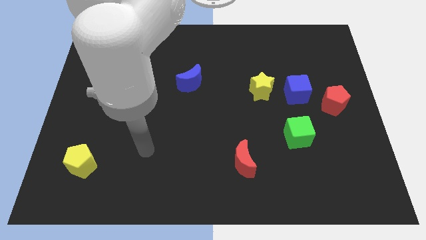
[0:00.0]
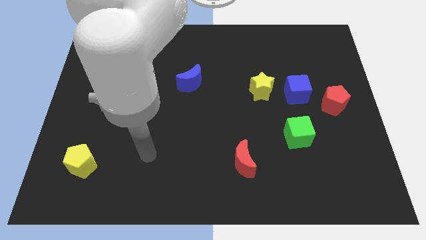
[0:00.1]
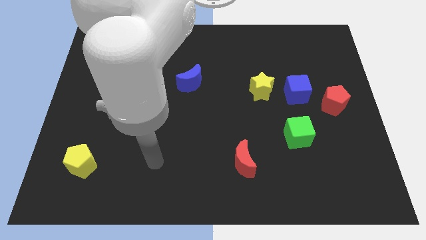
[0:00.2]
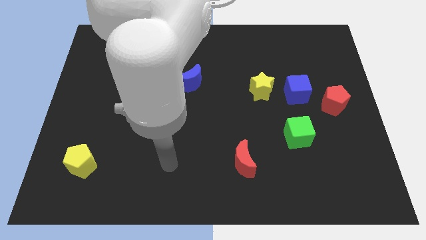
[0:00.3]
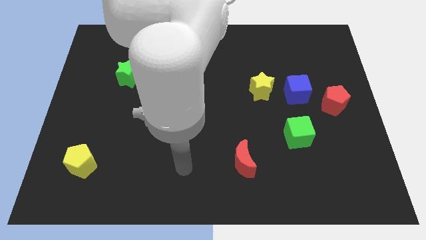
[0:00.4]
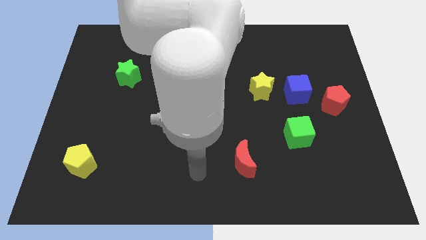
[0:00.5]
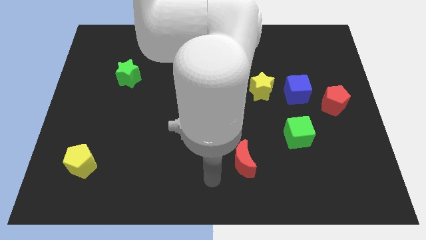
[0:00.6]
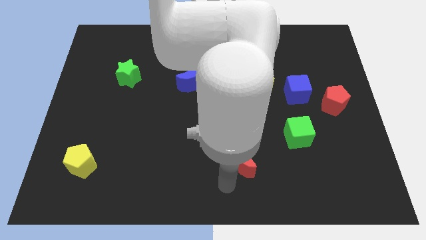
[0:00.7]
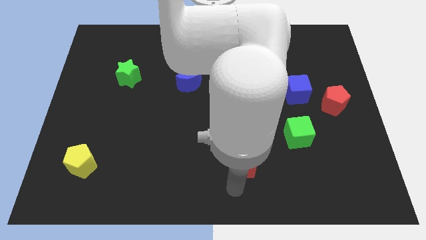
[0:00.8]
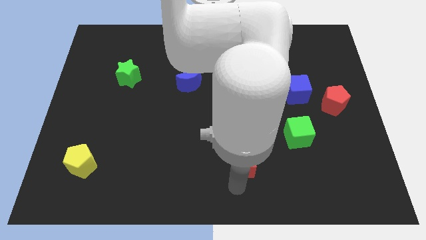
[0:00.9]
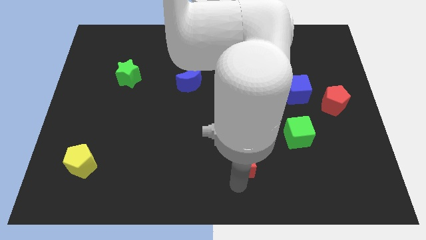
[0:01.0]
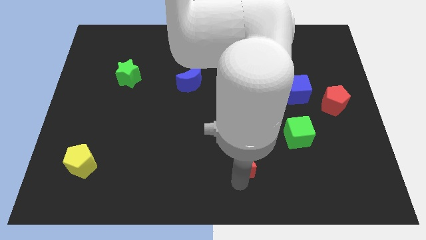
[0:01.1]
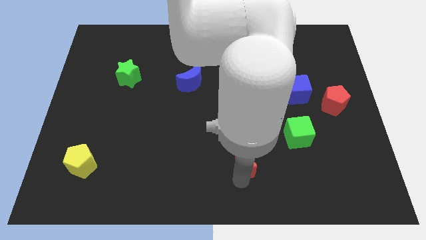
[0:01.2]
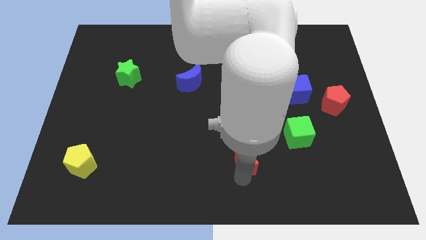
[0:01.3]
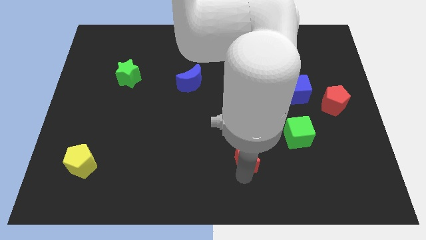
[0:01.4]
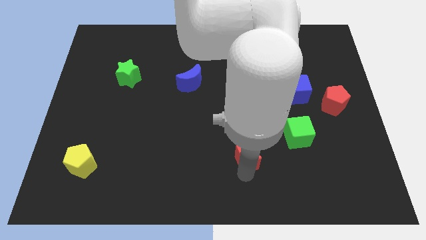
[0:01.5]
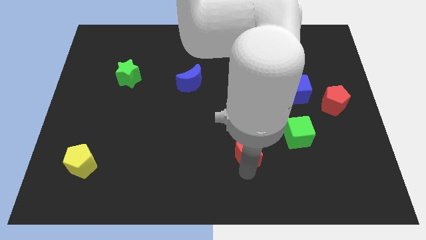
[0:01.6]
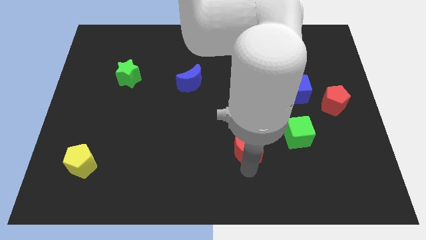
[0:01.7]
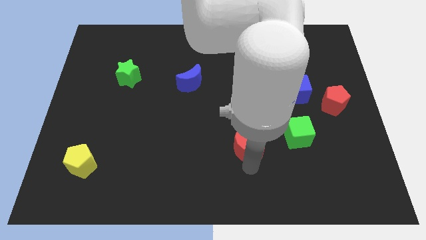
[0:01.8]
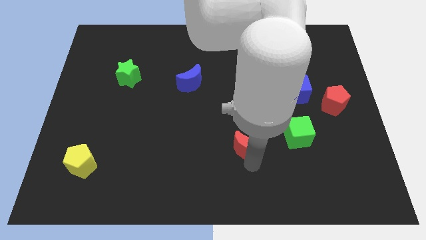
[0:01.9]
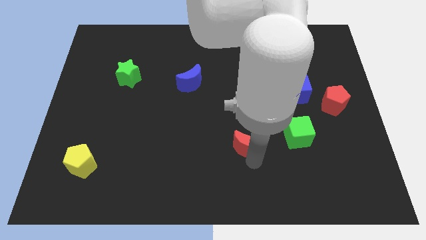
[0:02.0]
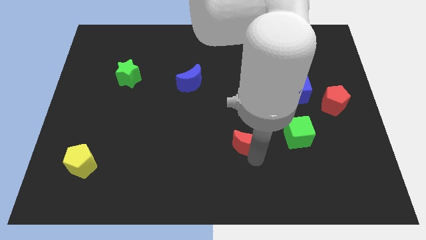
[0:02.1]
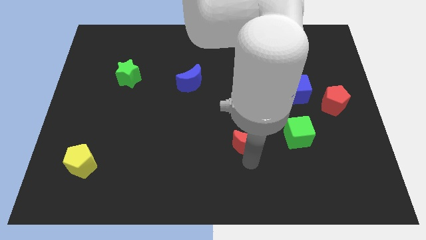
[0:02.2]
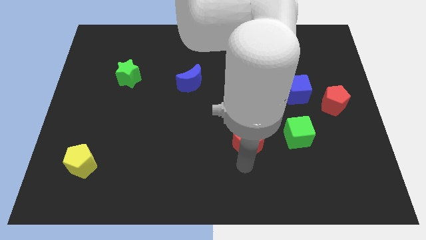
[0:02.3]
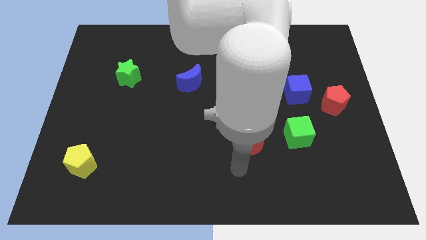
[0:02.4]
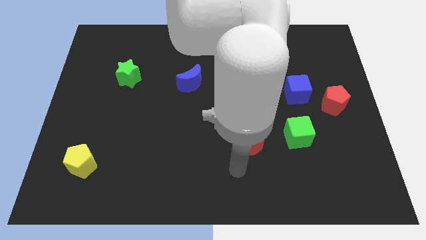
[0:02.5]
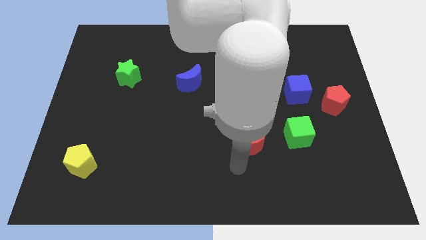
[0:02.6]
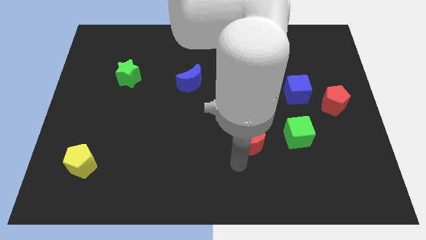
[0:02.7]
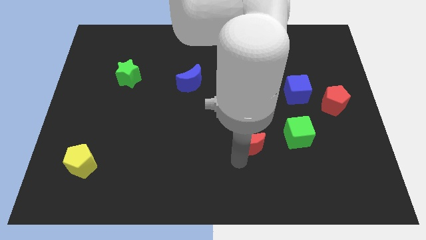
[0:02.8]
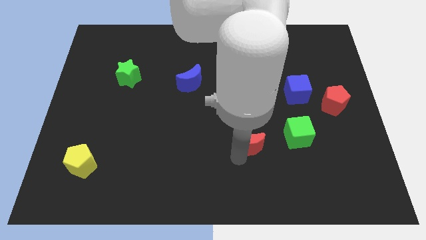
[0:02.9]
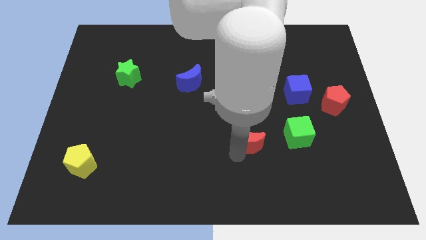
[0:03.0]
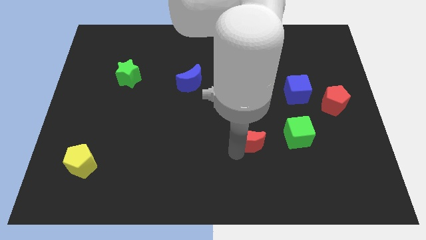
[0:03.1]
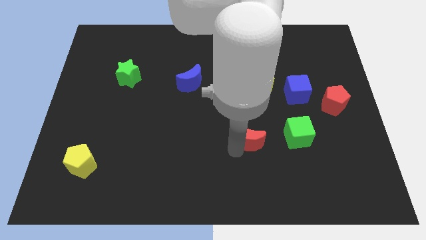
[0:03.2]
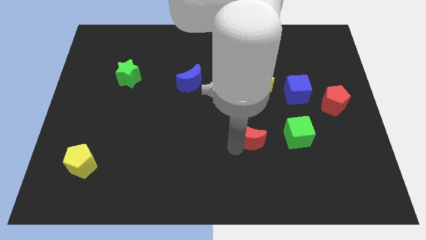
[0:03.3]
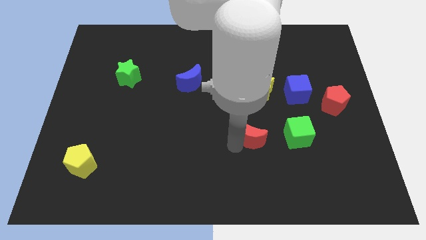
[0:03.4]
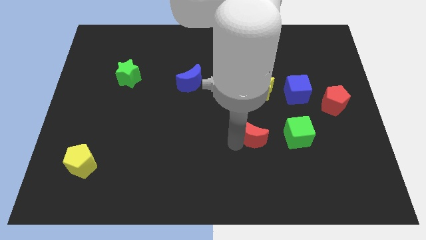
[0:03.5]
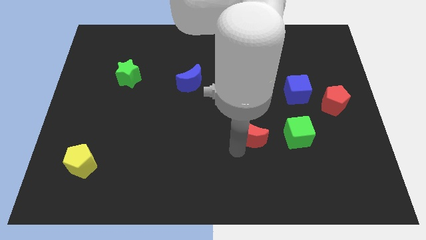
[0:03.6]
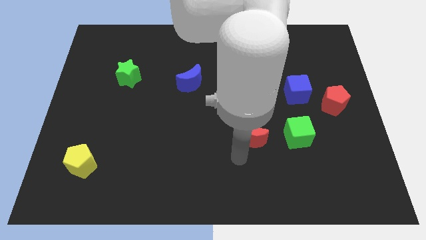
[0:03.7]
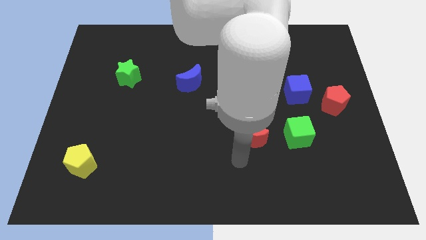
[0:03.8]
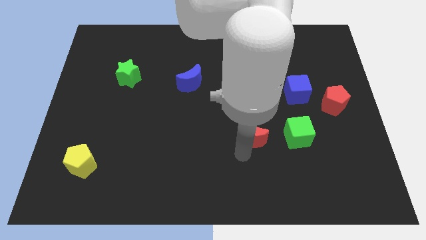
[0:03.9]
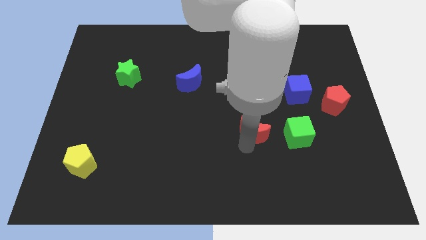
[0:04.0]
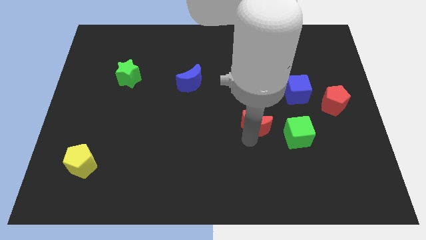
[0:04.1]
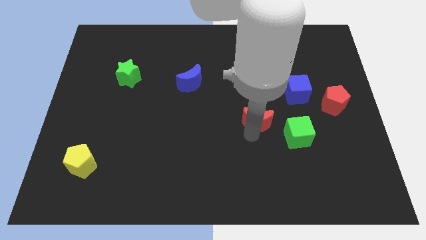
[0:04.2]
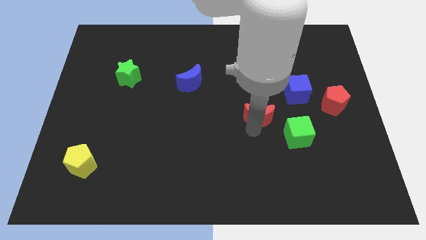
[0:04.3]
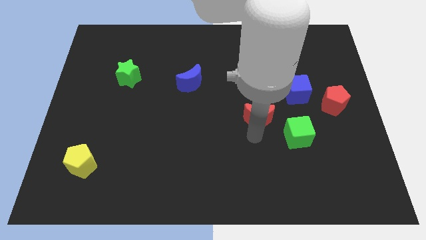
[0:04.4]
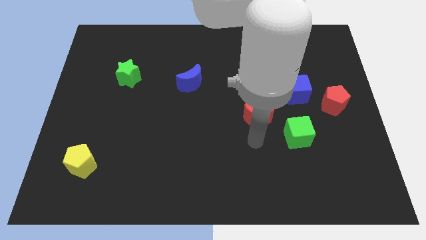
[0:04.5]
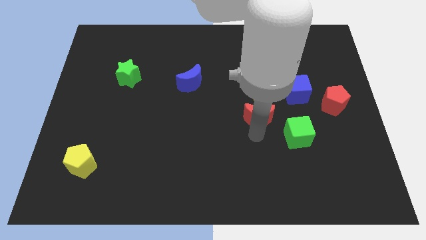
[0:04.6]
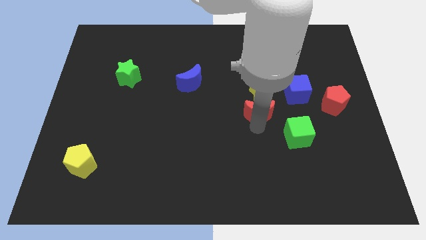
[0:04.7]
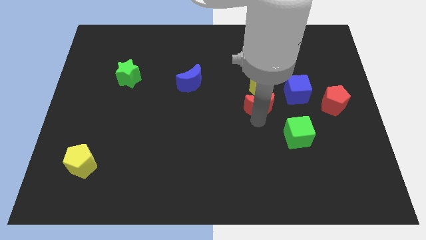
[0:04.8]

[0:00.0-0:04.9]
slide the red moon to the yellow star

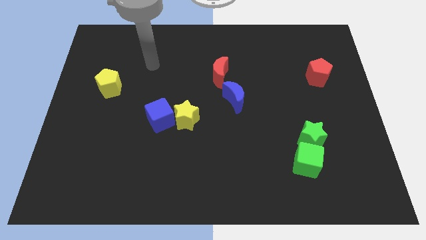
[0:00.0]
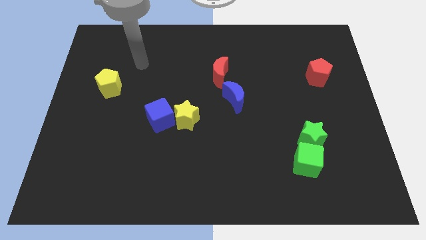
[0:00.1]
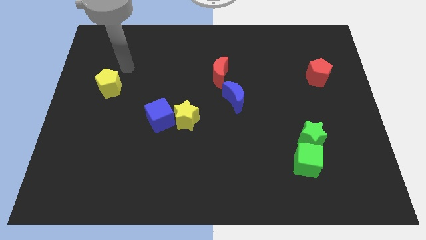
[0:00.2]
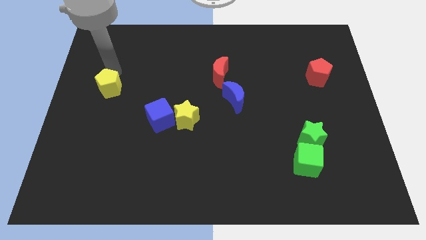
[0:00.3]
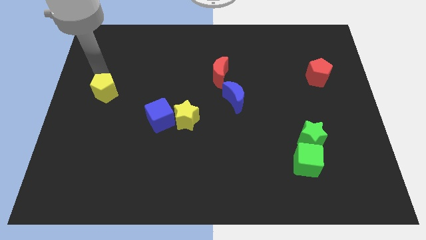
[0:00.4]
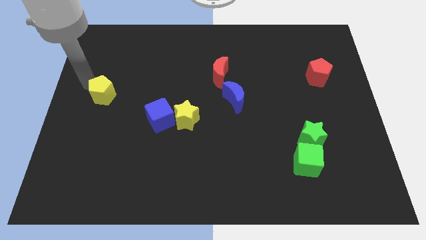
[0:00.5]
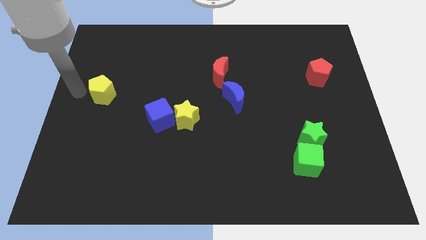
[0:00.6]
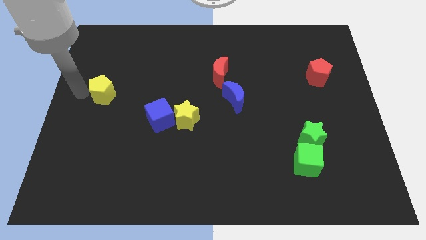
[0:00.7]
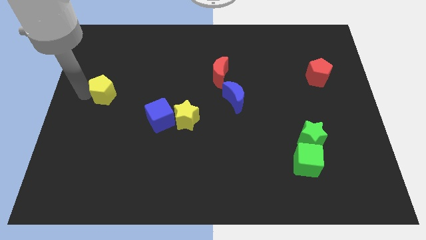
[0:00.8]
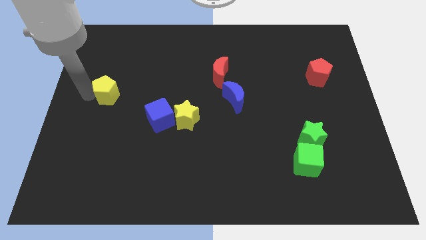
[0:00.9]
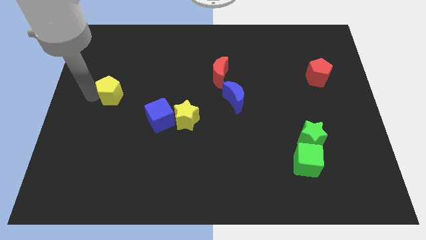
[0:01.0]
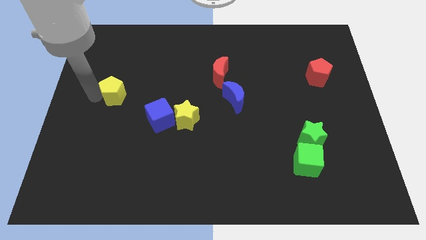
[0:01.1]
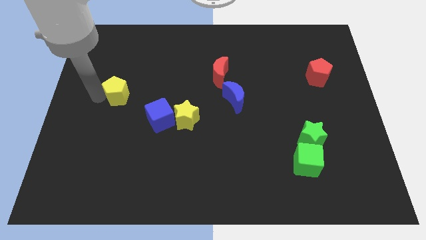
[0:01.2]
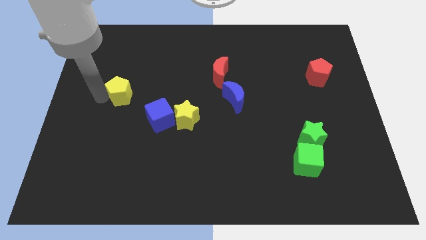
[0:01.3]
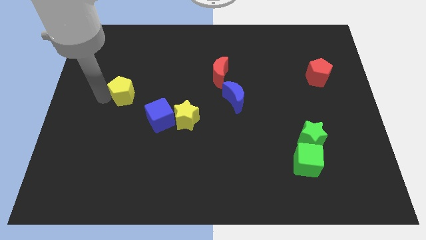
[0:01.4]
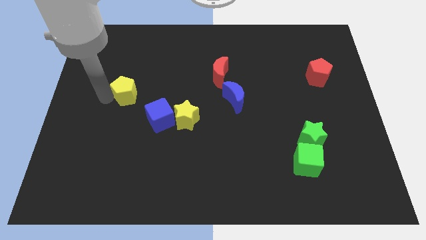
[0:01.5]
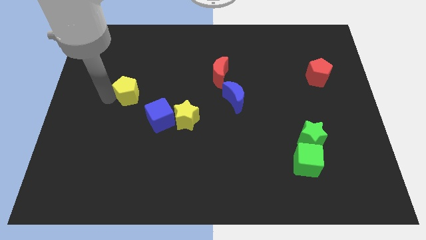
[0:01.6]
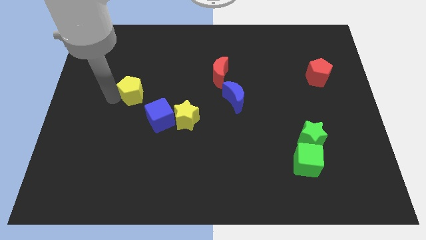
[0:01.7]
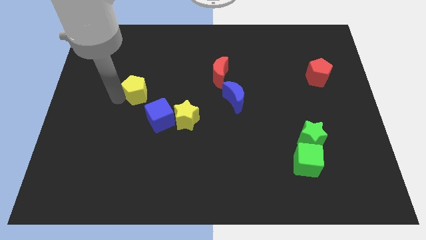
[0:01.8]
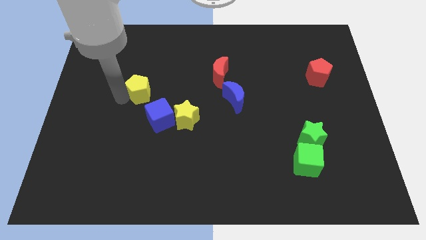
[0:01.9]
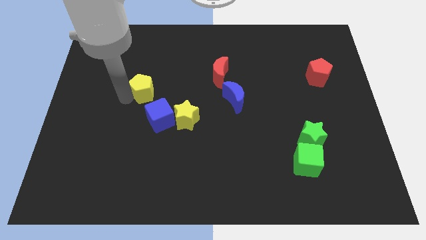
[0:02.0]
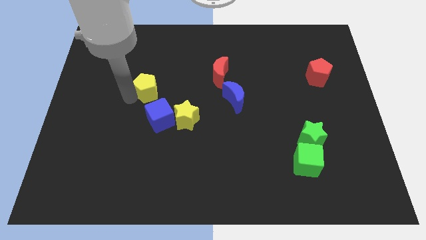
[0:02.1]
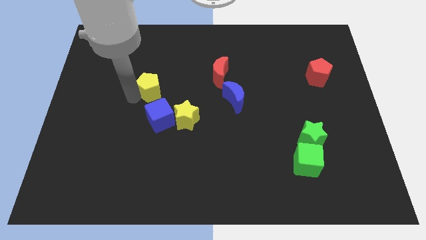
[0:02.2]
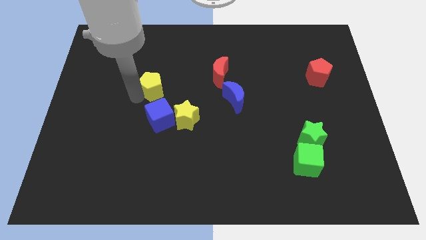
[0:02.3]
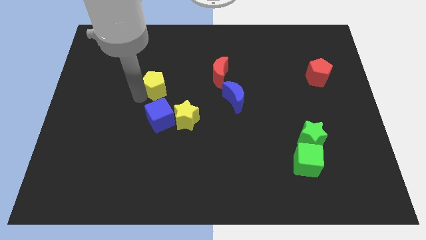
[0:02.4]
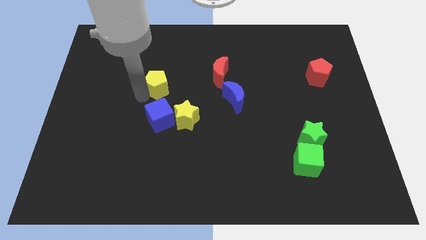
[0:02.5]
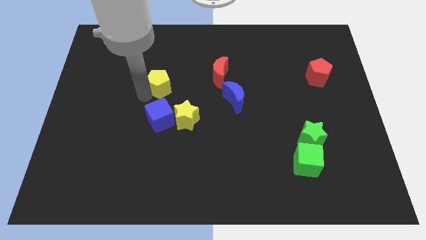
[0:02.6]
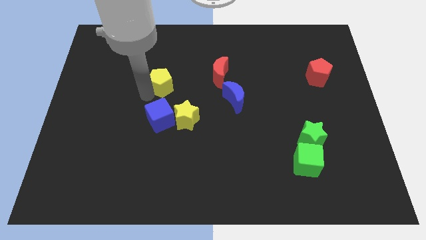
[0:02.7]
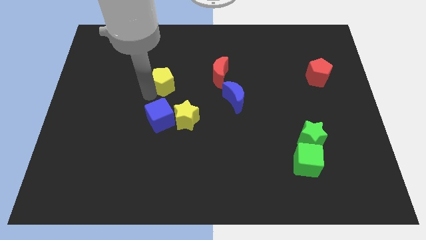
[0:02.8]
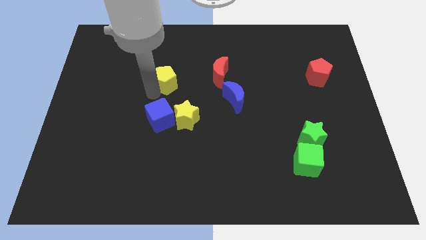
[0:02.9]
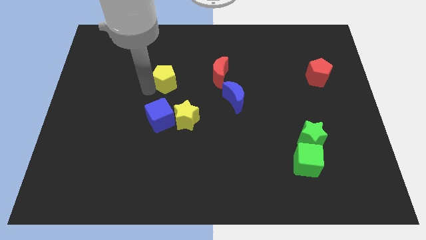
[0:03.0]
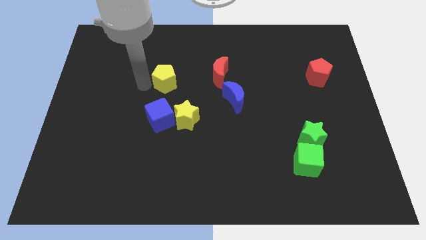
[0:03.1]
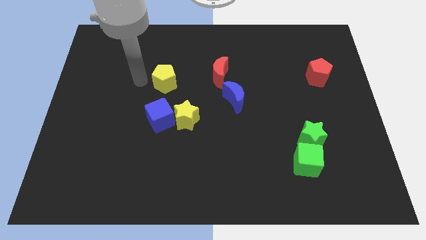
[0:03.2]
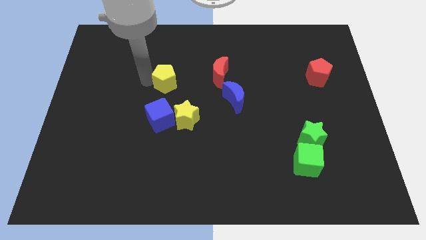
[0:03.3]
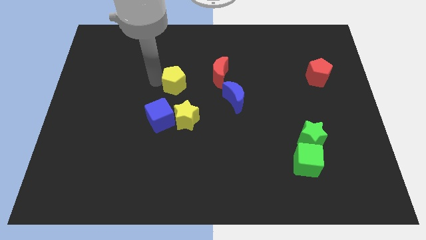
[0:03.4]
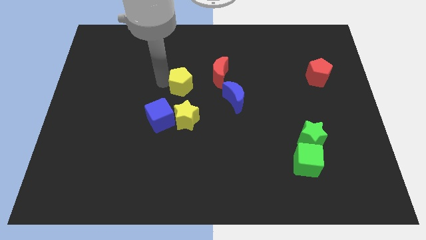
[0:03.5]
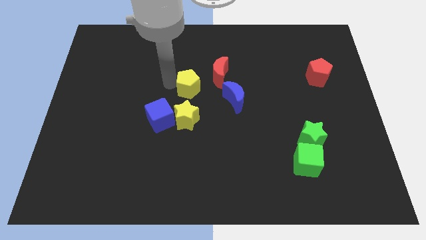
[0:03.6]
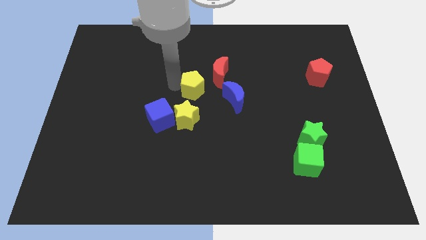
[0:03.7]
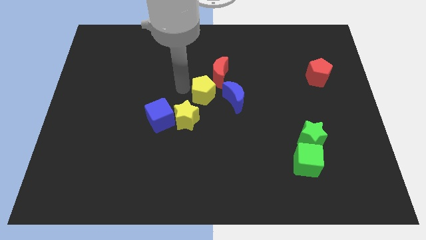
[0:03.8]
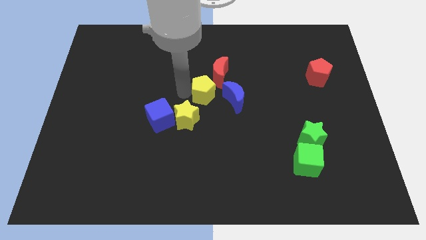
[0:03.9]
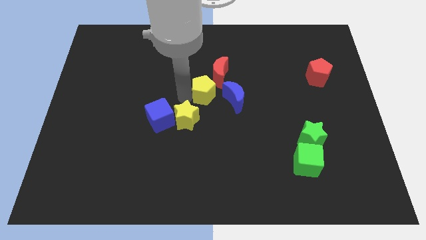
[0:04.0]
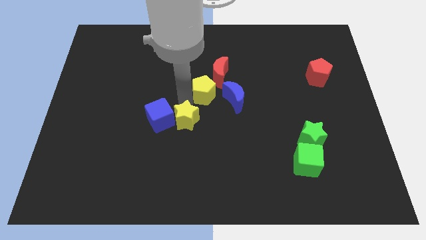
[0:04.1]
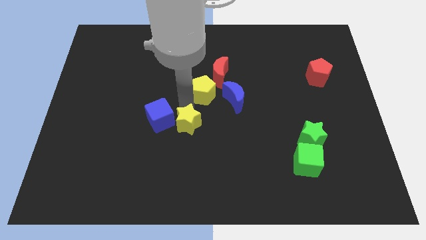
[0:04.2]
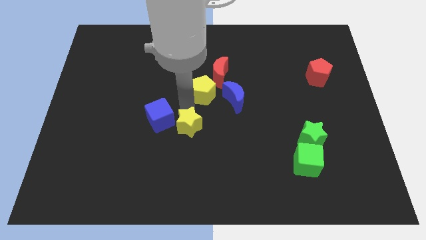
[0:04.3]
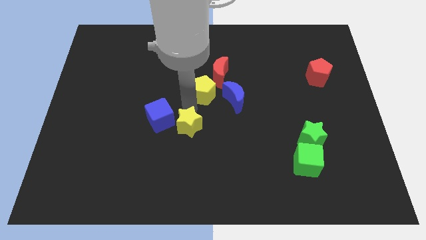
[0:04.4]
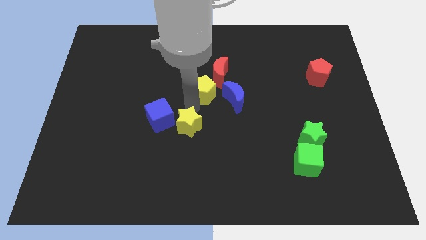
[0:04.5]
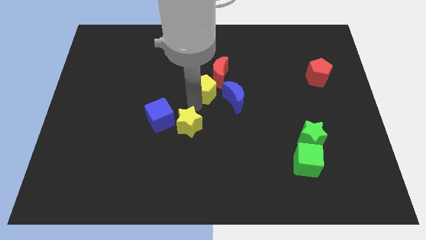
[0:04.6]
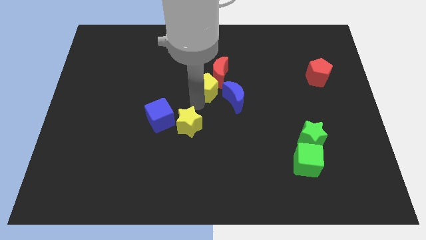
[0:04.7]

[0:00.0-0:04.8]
slide the yellow pentagon to the red moon
